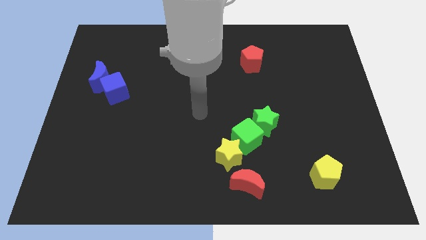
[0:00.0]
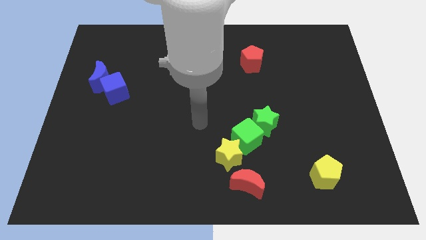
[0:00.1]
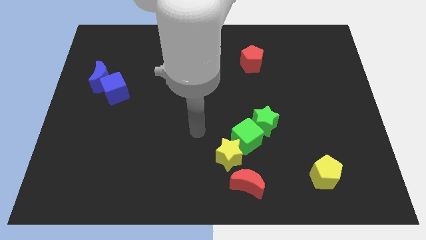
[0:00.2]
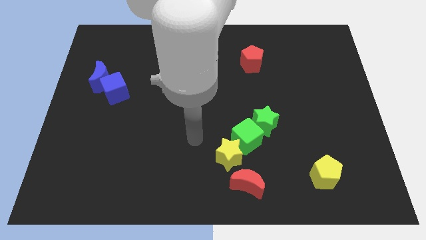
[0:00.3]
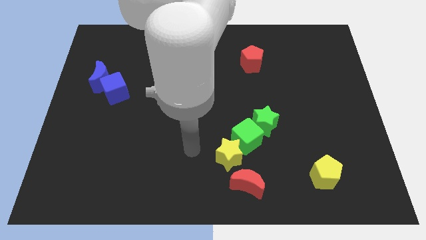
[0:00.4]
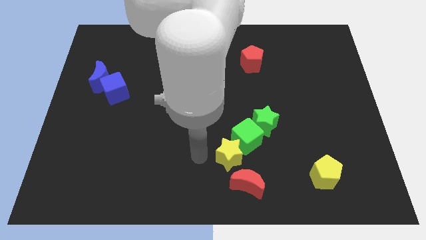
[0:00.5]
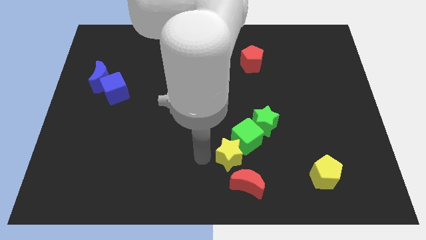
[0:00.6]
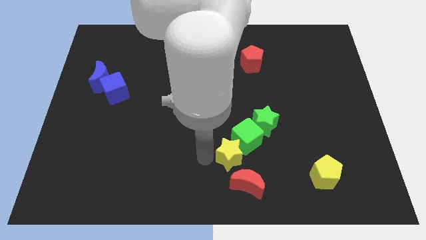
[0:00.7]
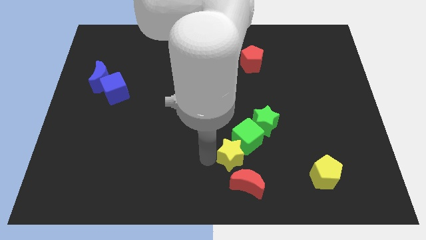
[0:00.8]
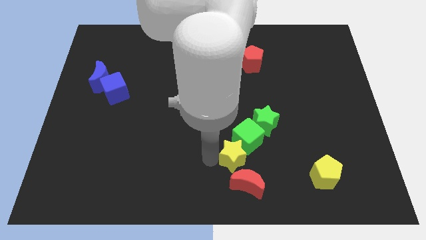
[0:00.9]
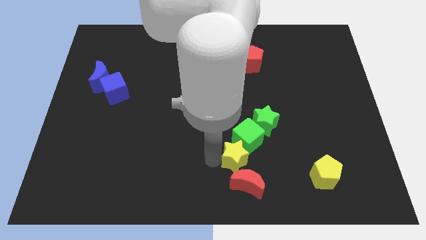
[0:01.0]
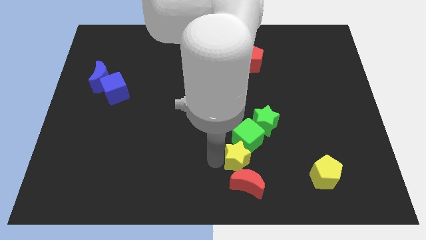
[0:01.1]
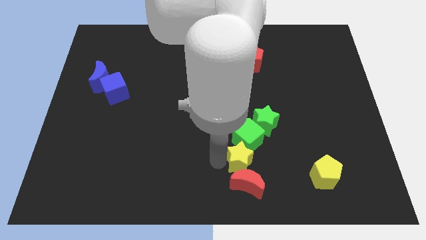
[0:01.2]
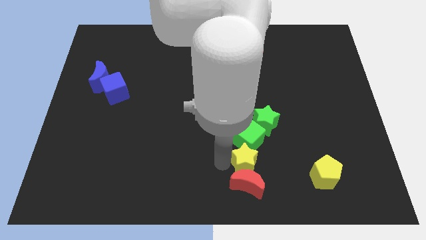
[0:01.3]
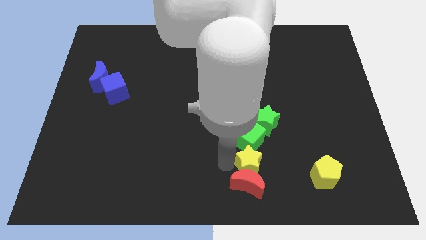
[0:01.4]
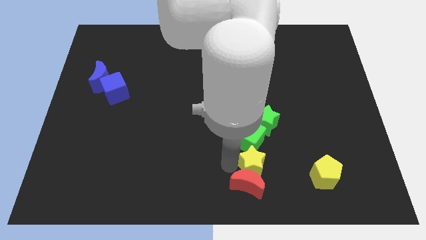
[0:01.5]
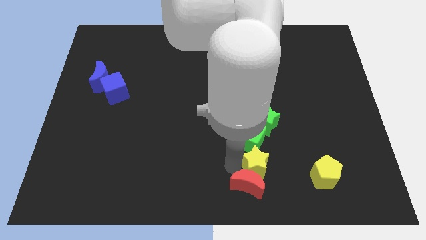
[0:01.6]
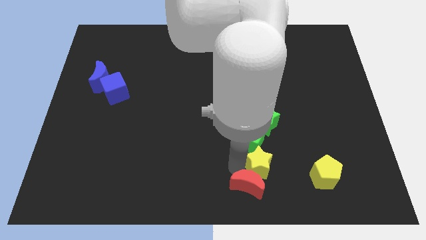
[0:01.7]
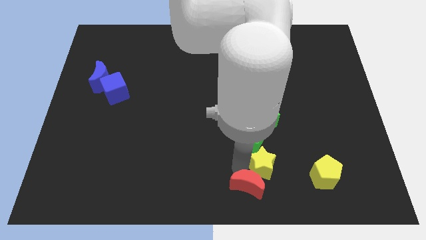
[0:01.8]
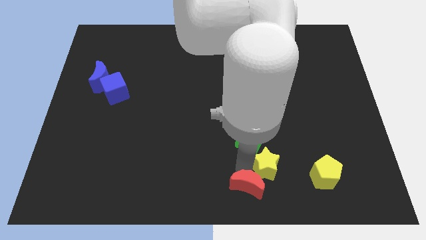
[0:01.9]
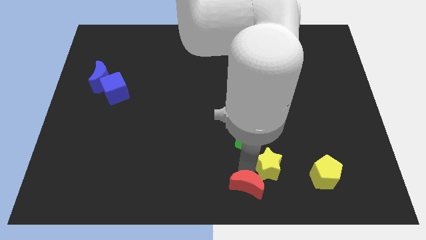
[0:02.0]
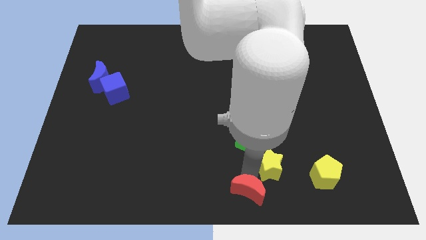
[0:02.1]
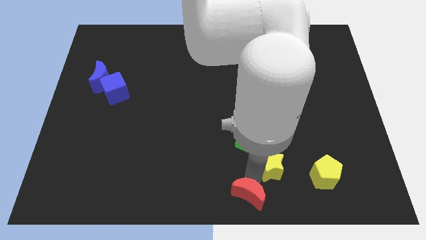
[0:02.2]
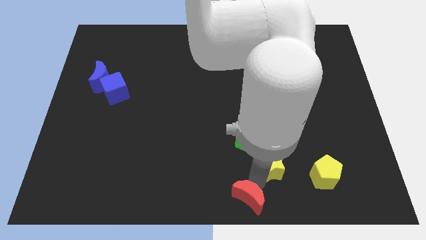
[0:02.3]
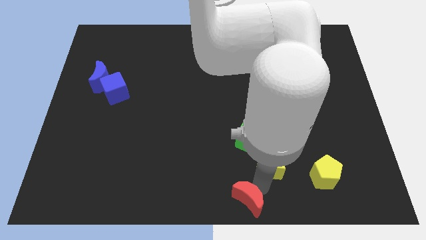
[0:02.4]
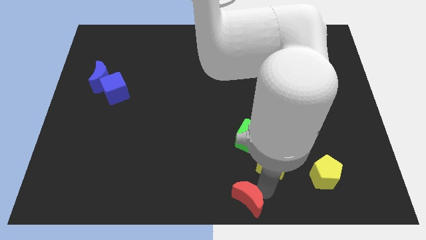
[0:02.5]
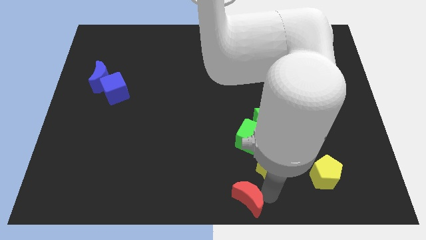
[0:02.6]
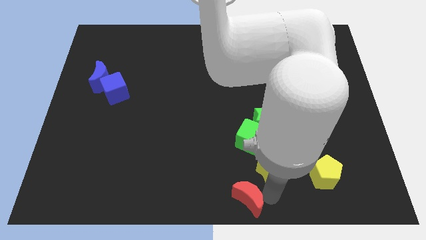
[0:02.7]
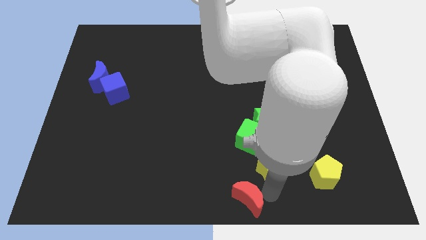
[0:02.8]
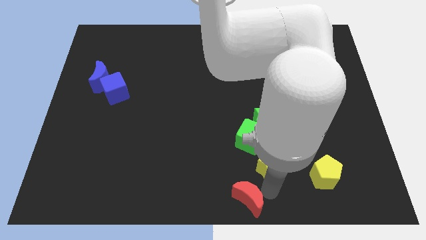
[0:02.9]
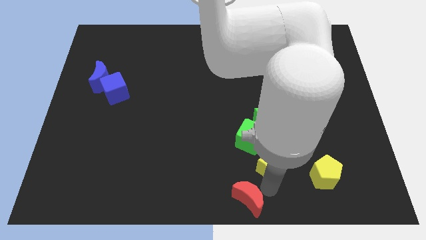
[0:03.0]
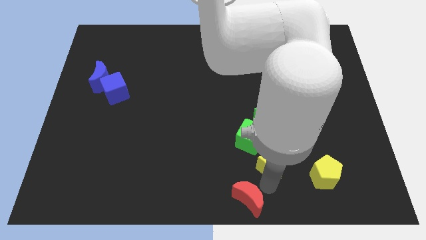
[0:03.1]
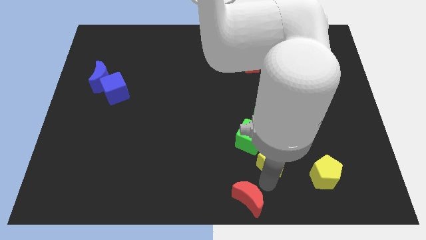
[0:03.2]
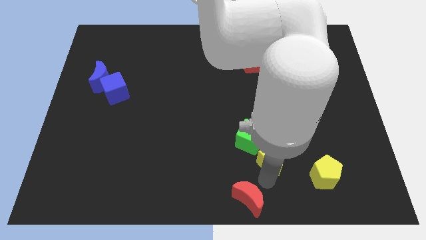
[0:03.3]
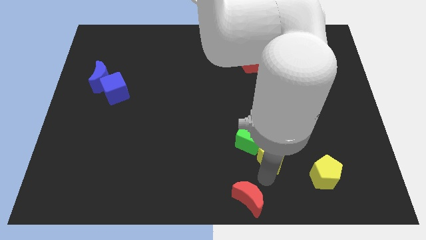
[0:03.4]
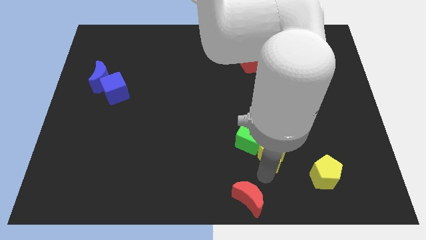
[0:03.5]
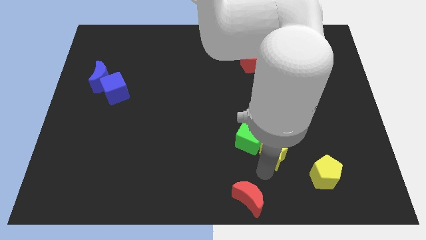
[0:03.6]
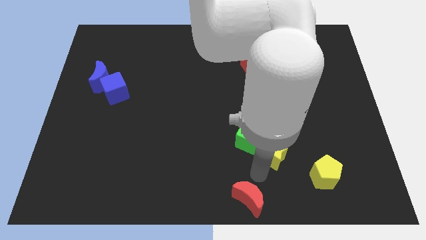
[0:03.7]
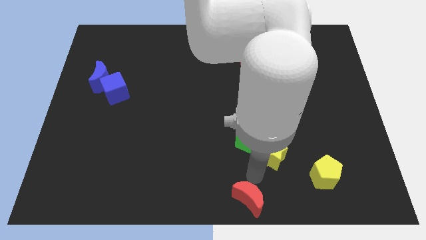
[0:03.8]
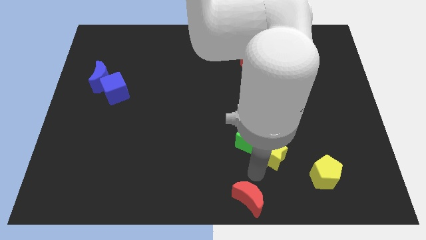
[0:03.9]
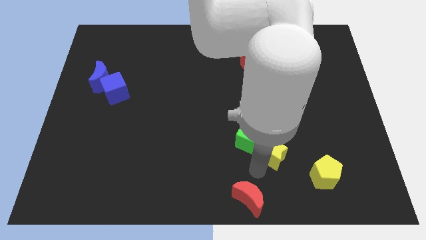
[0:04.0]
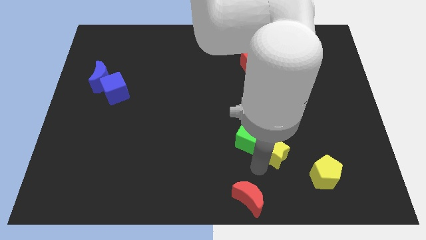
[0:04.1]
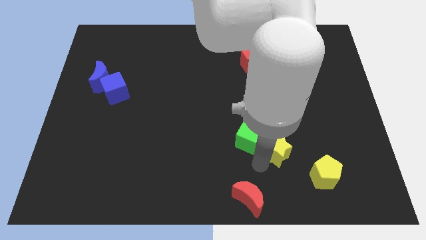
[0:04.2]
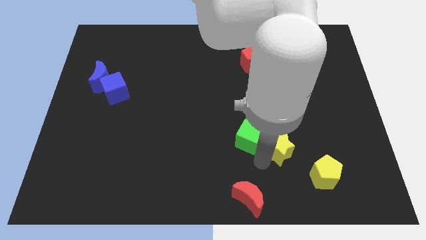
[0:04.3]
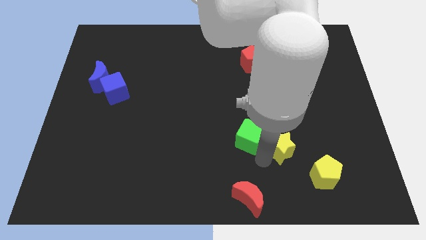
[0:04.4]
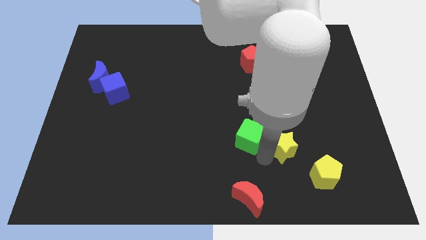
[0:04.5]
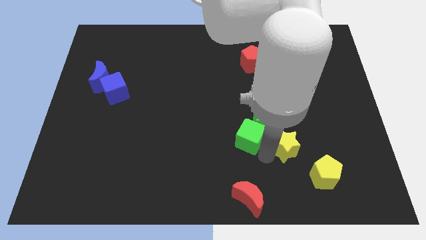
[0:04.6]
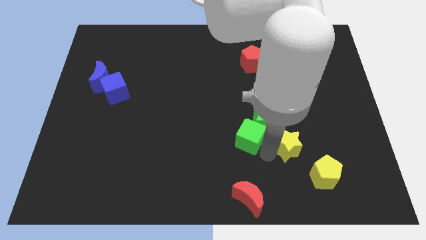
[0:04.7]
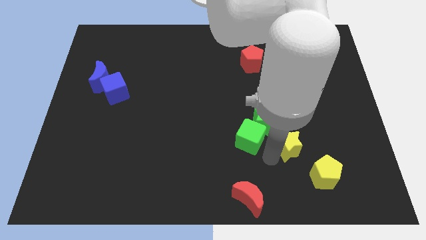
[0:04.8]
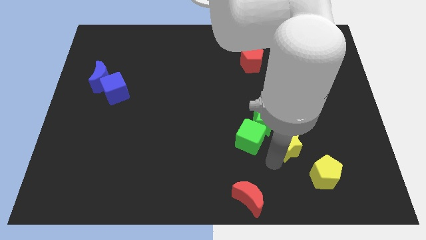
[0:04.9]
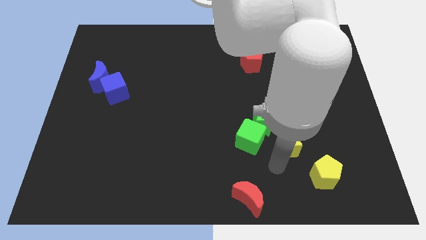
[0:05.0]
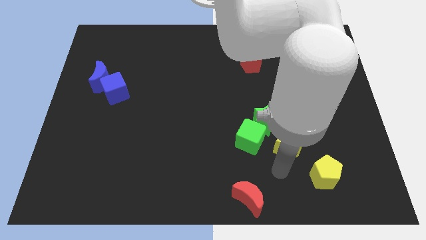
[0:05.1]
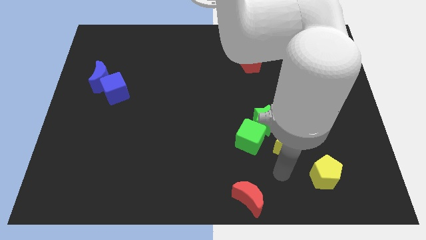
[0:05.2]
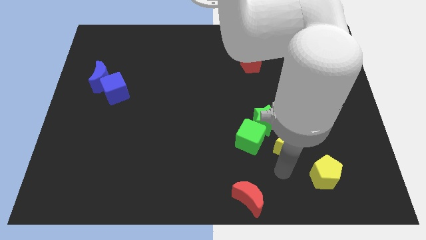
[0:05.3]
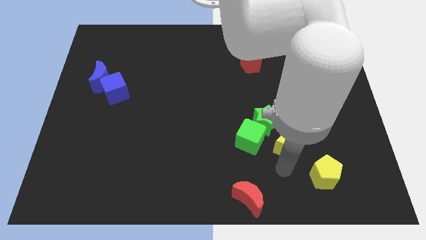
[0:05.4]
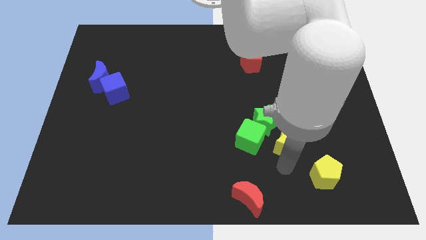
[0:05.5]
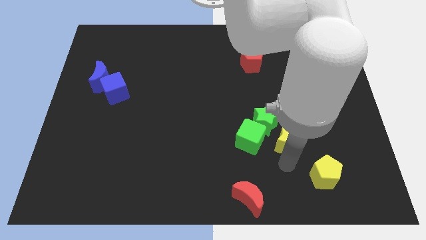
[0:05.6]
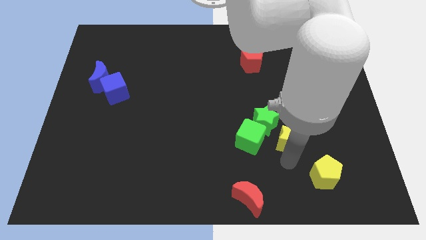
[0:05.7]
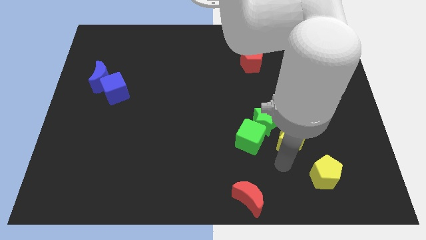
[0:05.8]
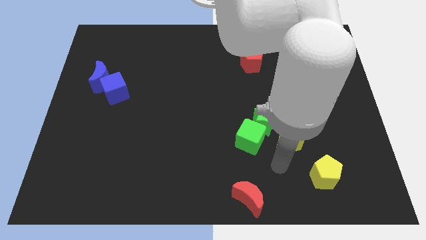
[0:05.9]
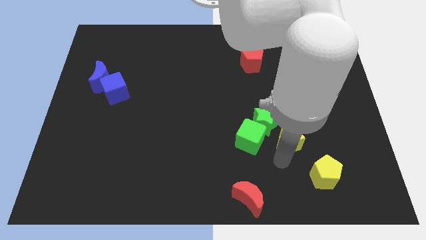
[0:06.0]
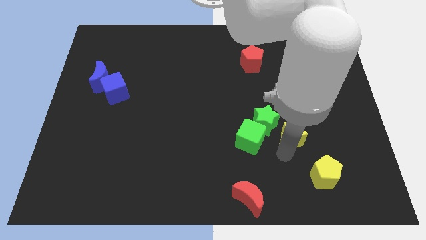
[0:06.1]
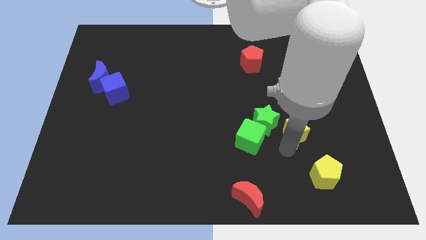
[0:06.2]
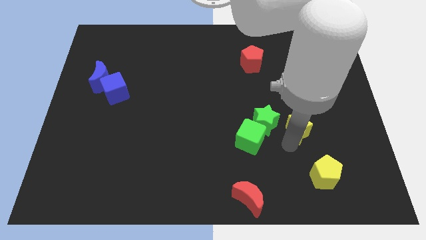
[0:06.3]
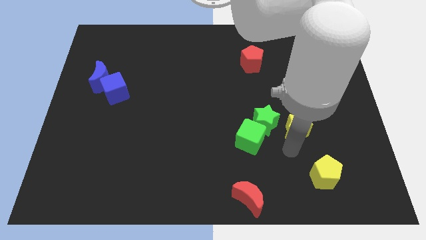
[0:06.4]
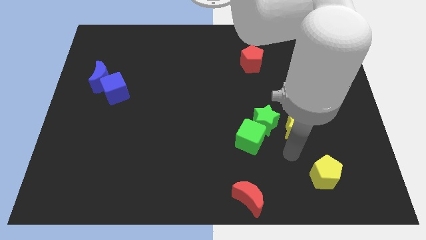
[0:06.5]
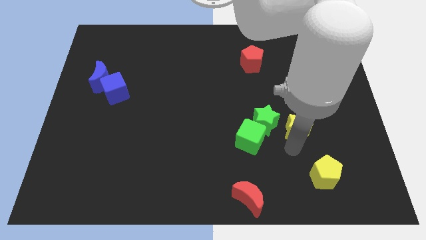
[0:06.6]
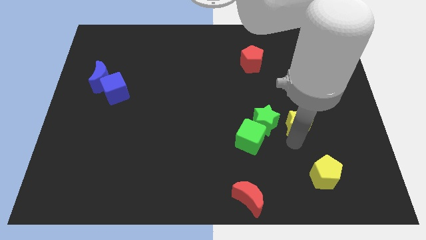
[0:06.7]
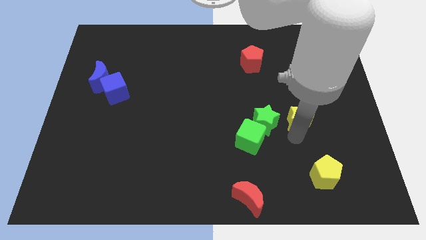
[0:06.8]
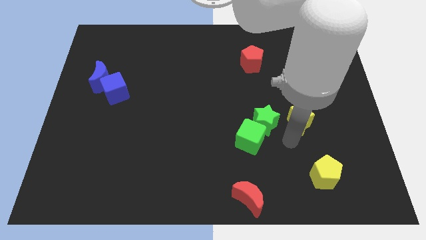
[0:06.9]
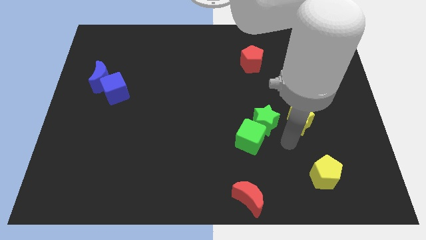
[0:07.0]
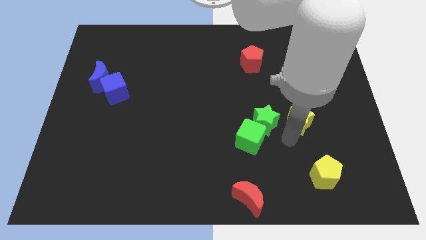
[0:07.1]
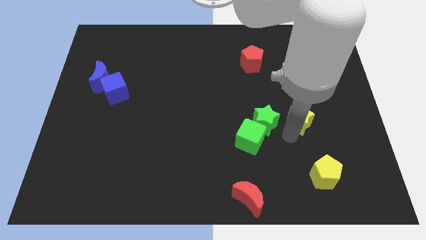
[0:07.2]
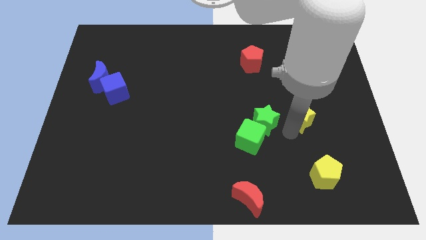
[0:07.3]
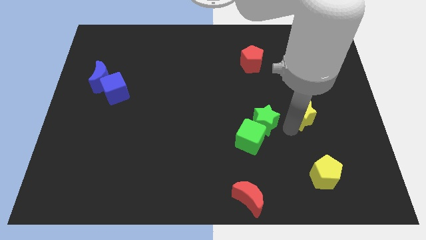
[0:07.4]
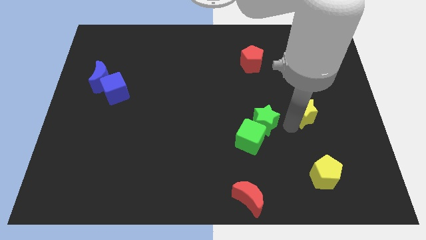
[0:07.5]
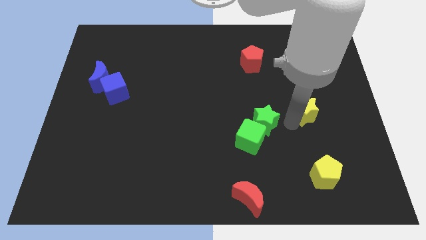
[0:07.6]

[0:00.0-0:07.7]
move the yellow star up and right

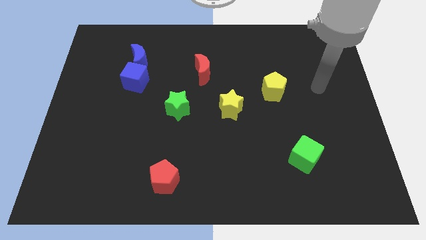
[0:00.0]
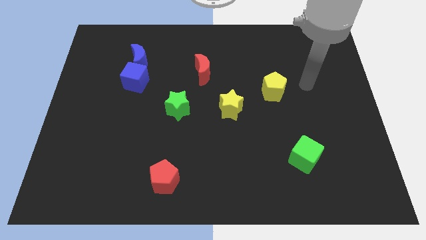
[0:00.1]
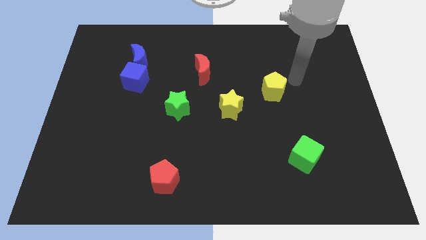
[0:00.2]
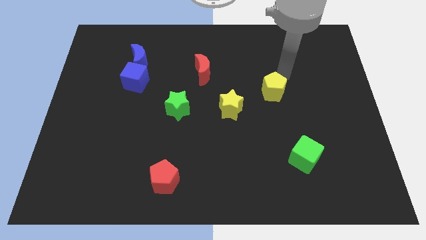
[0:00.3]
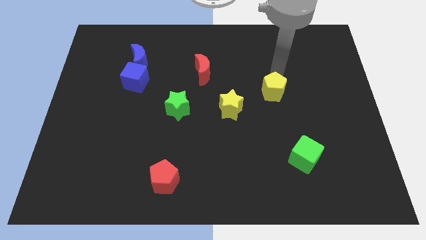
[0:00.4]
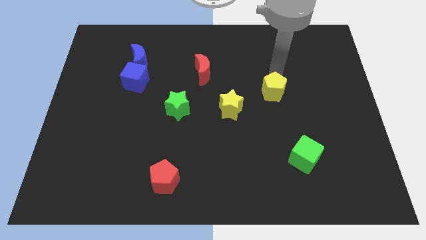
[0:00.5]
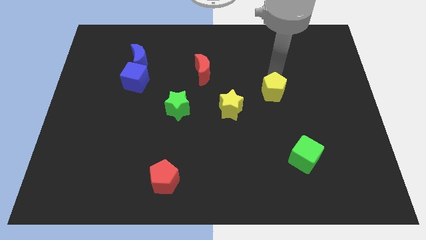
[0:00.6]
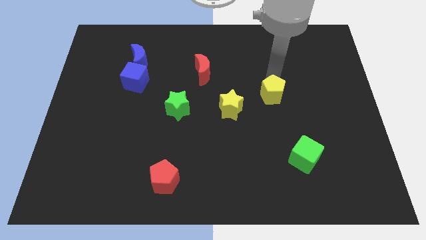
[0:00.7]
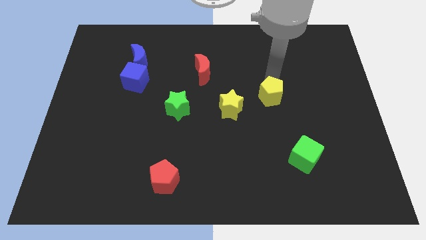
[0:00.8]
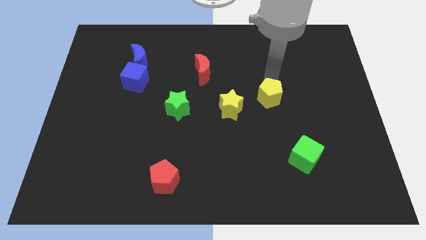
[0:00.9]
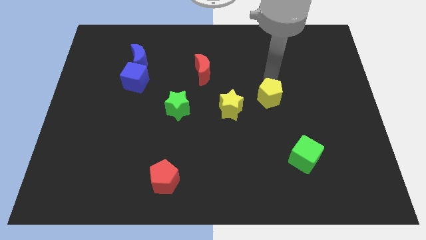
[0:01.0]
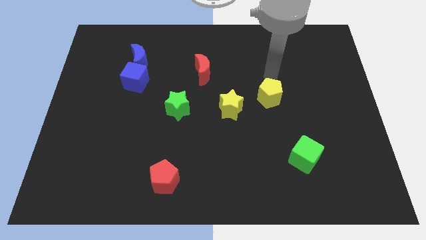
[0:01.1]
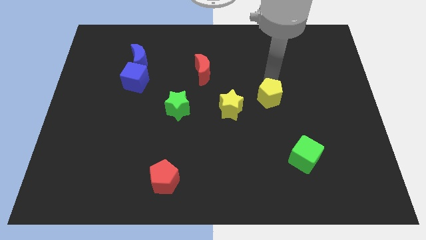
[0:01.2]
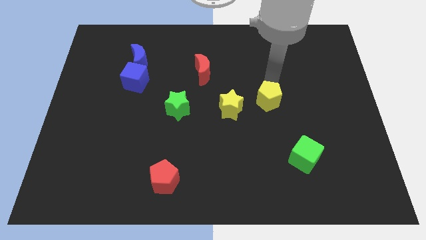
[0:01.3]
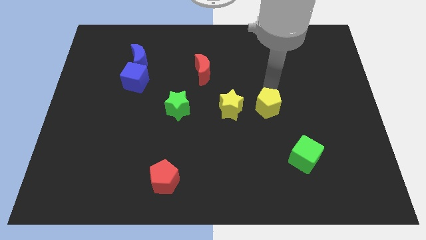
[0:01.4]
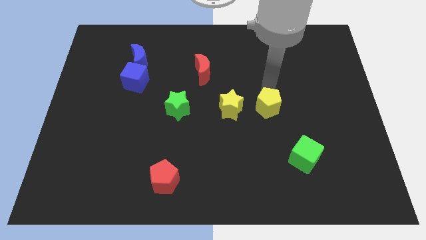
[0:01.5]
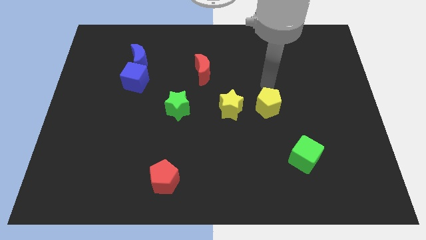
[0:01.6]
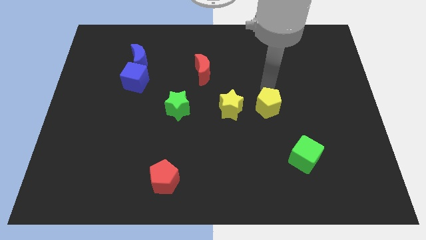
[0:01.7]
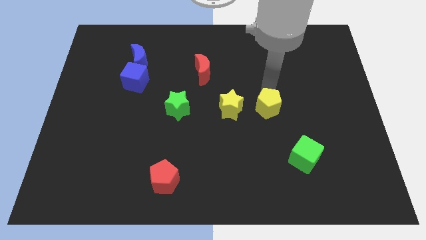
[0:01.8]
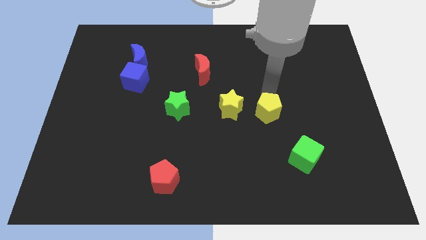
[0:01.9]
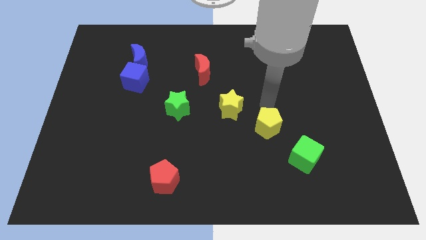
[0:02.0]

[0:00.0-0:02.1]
move the yellow pentagon somewhat downwards
